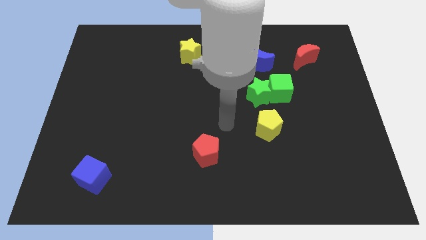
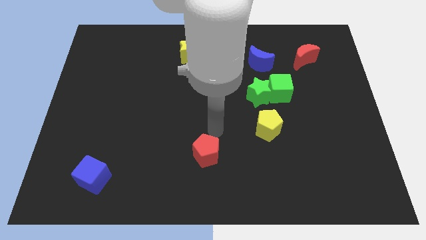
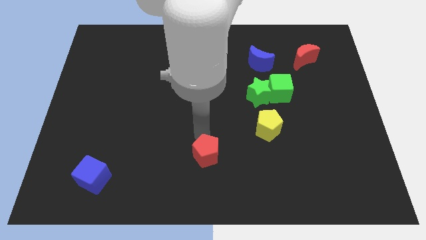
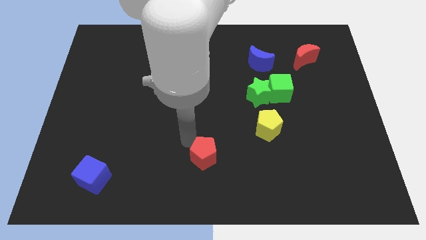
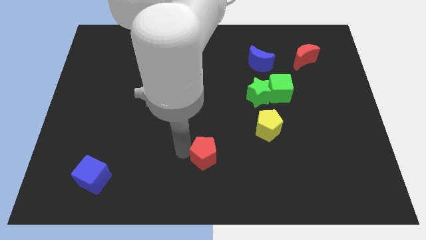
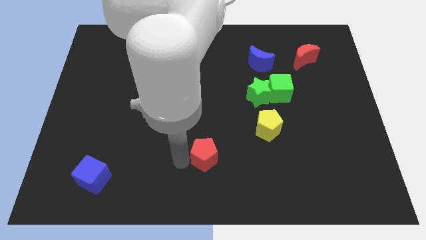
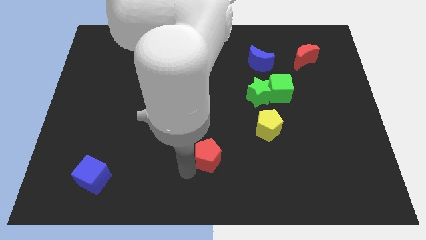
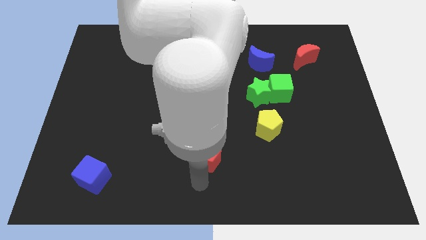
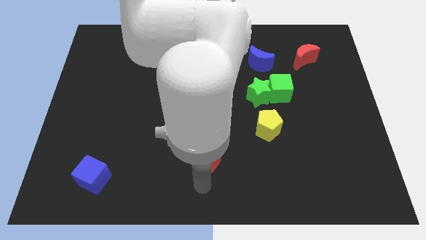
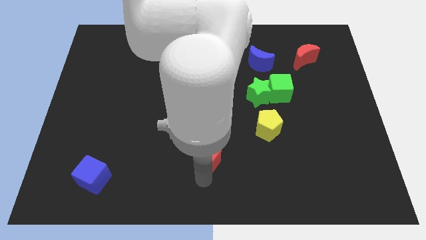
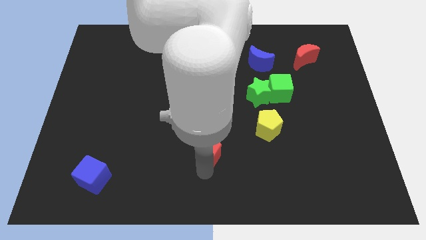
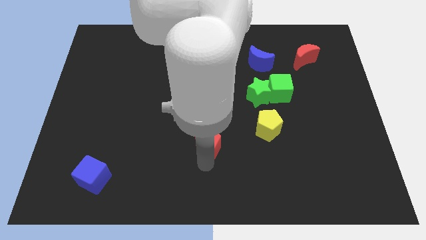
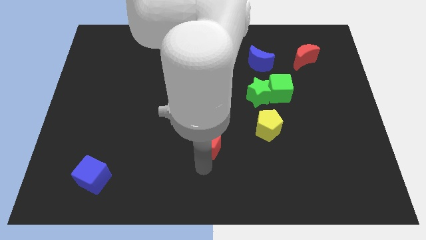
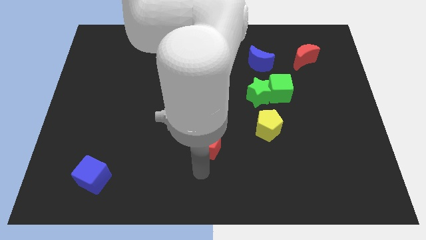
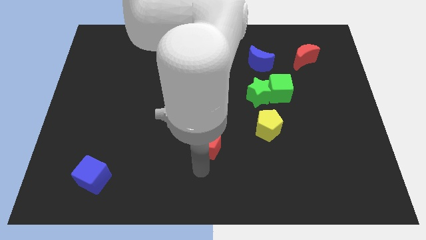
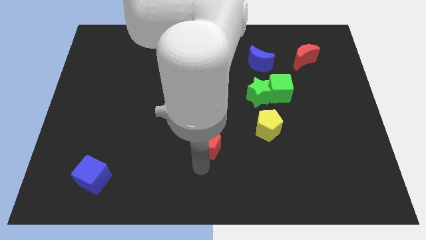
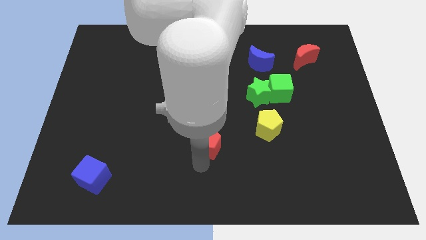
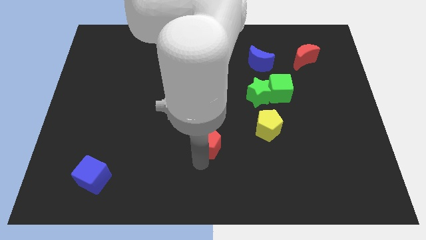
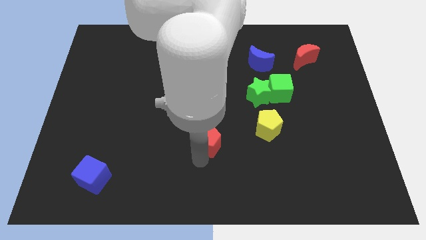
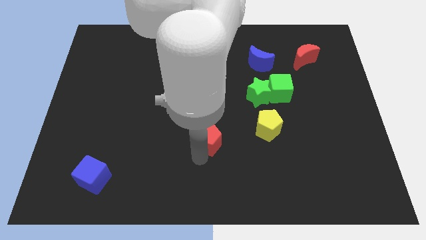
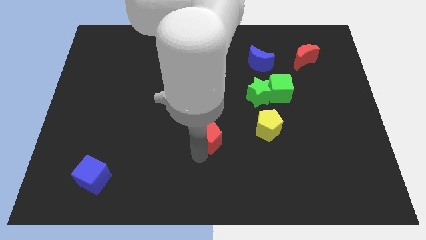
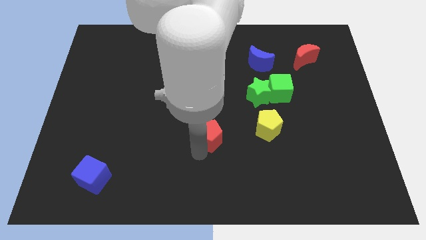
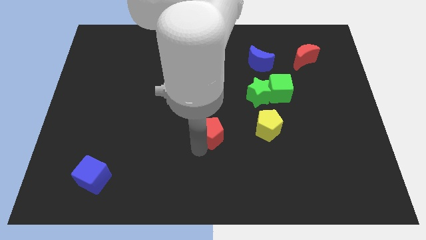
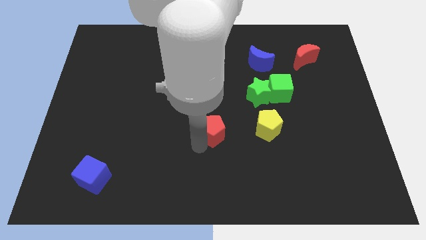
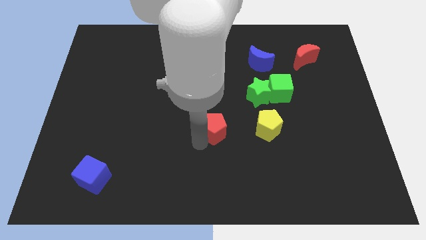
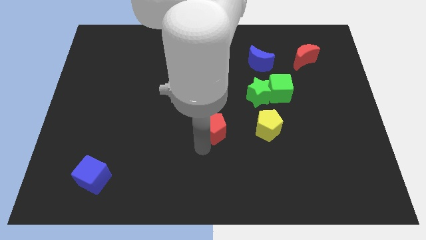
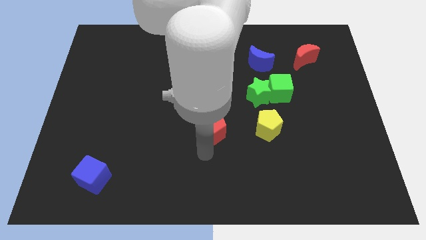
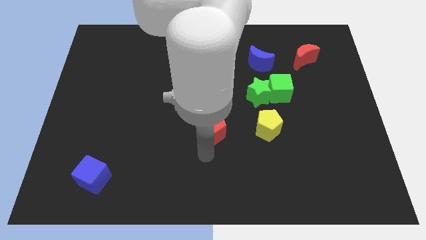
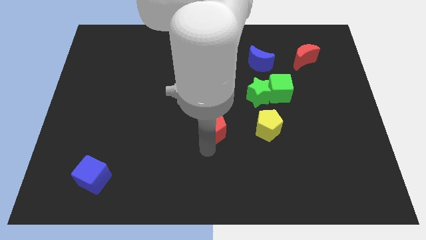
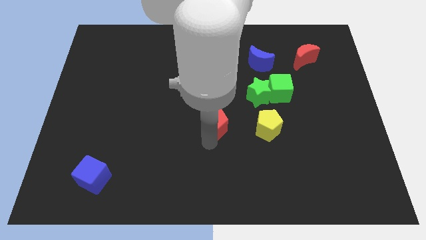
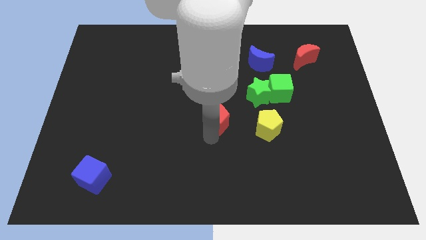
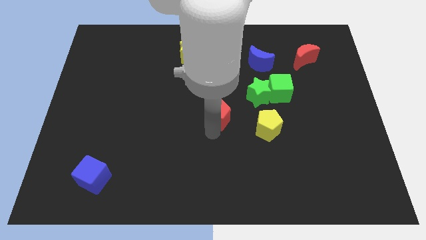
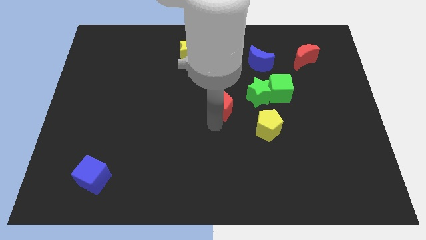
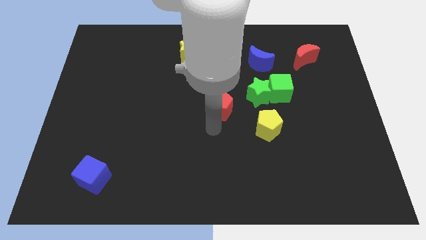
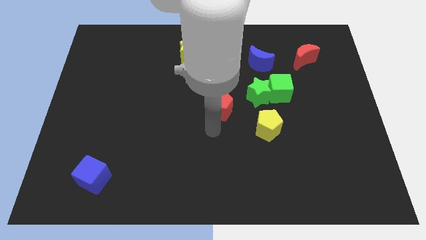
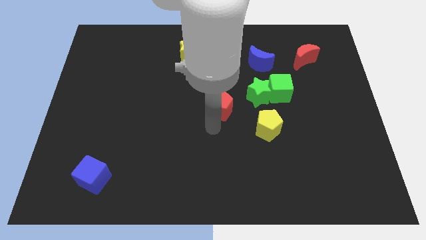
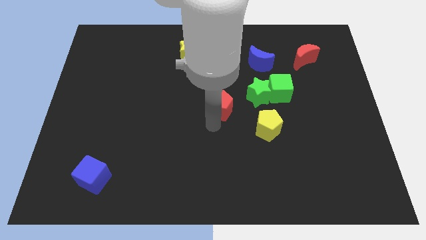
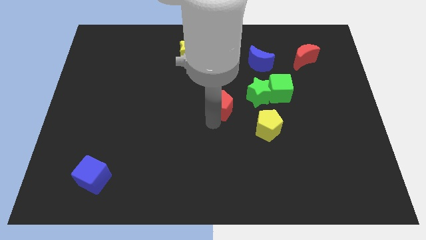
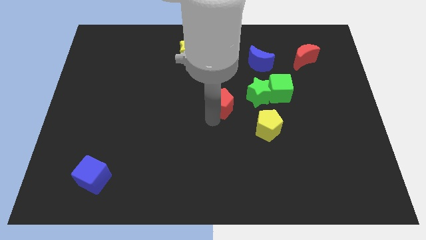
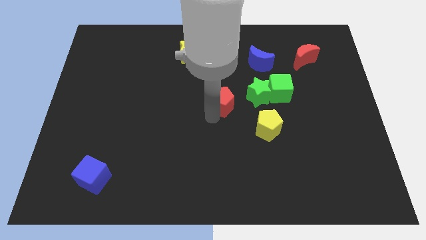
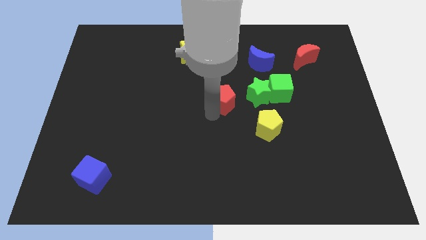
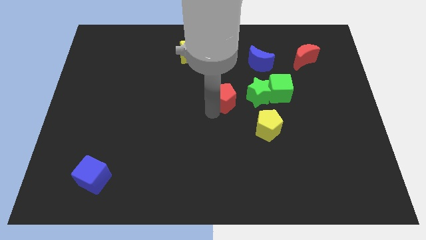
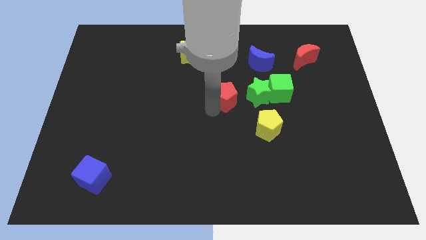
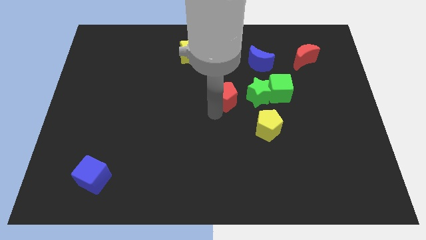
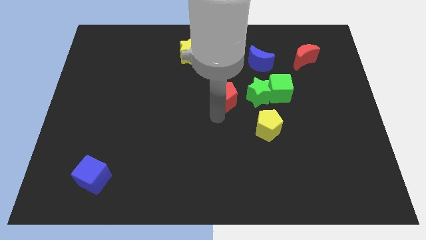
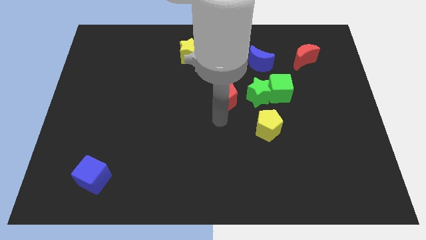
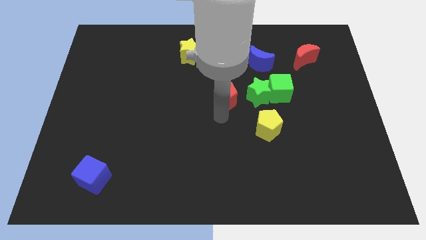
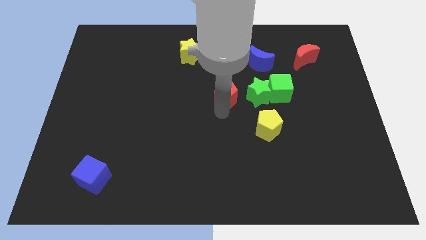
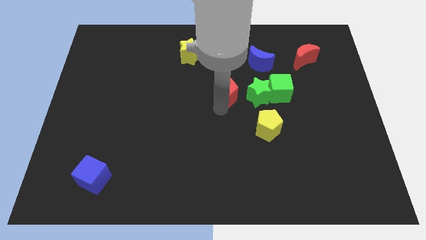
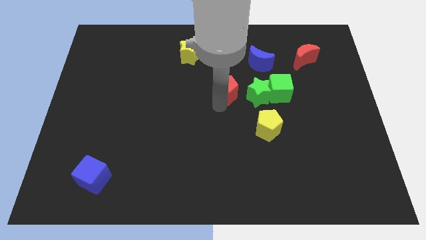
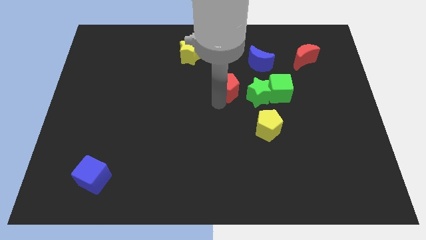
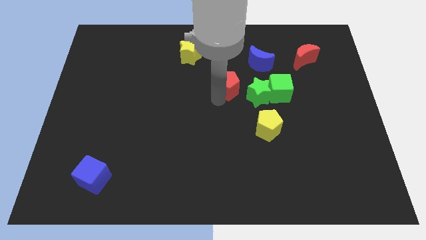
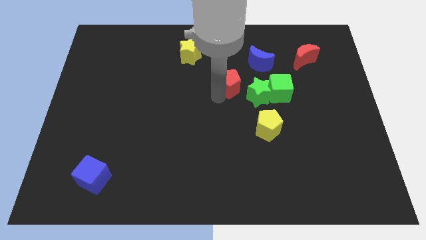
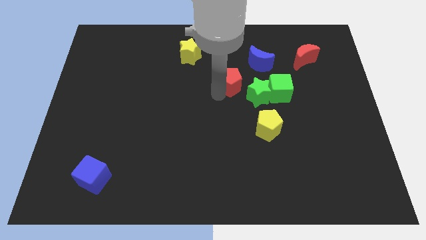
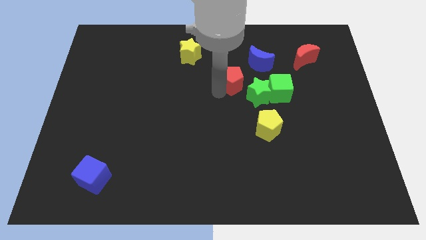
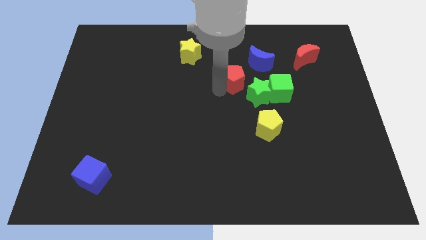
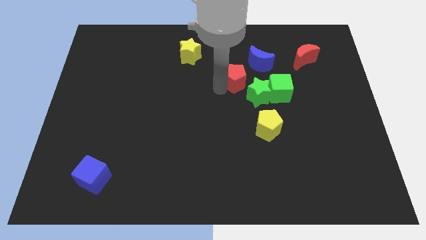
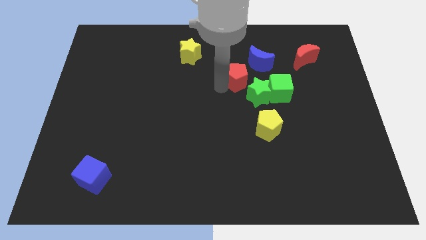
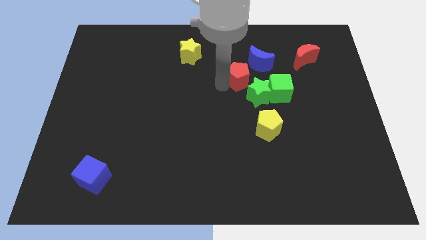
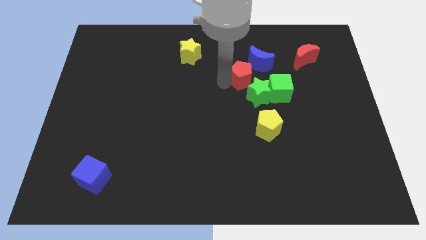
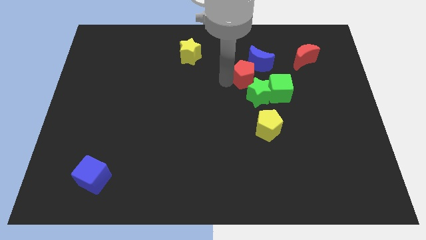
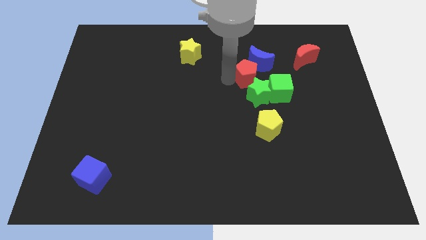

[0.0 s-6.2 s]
slide the red pentagon towards the blue moon

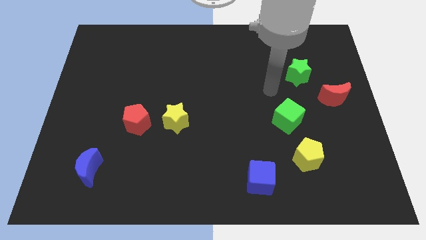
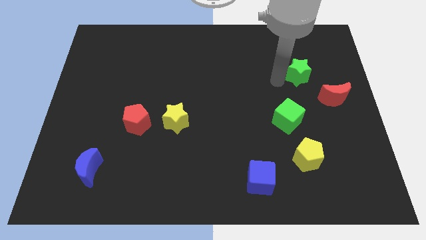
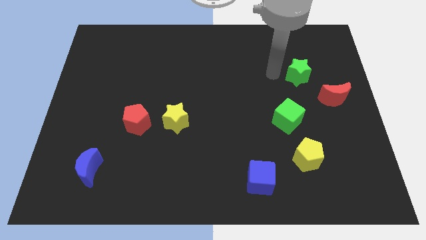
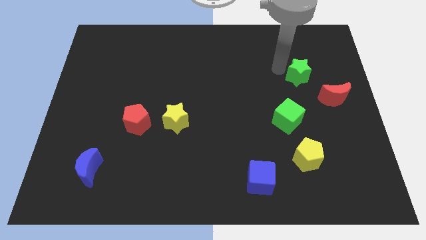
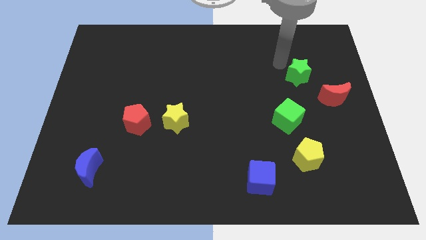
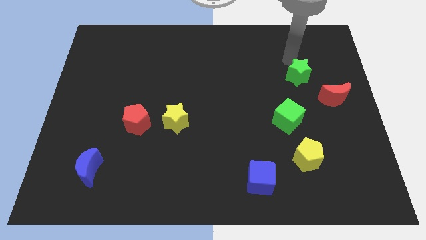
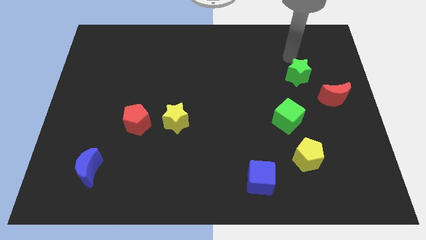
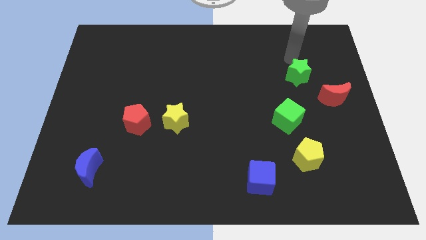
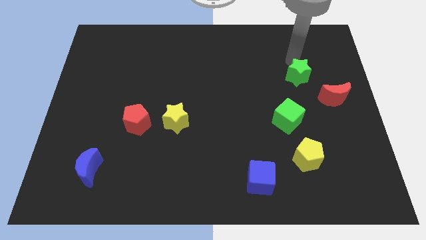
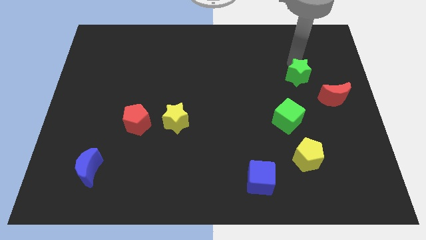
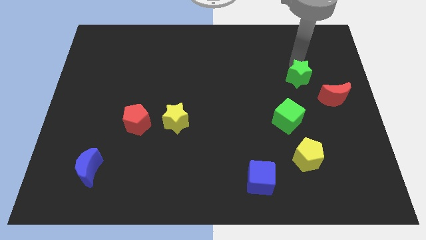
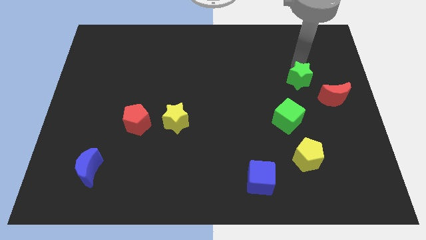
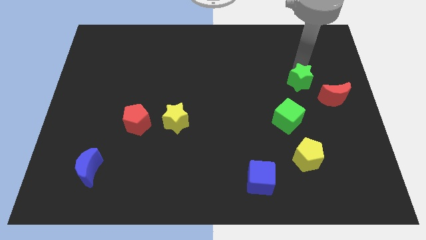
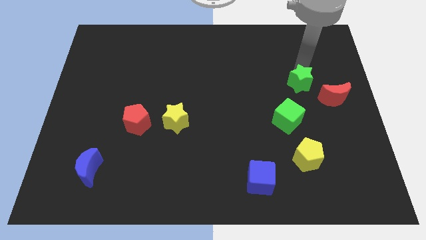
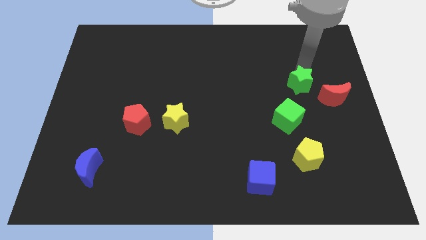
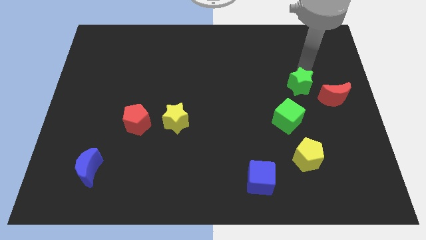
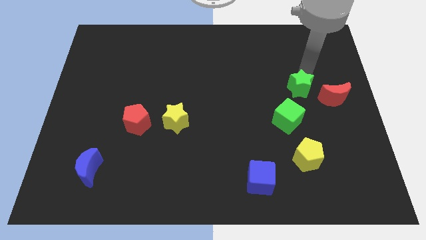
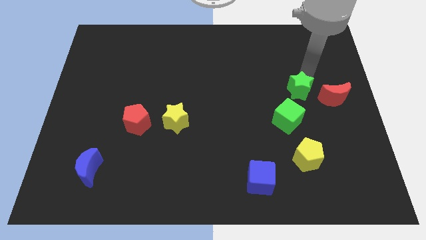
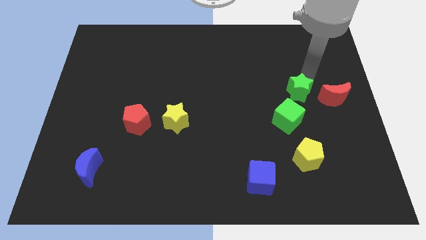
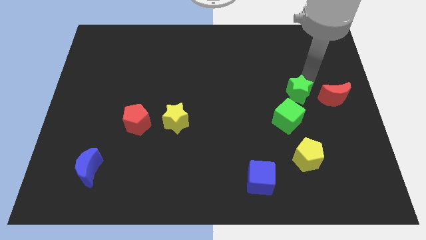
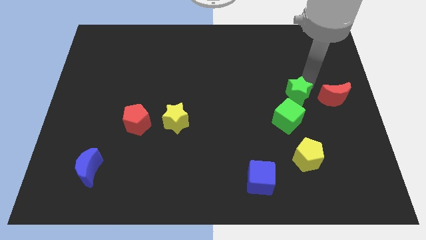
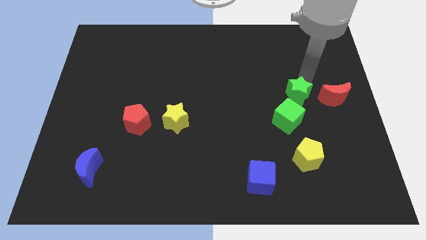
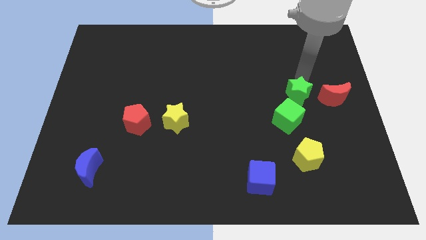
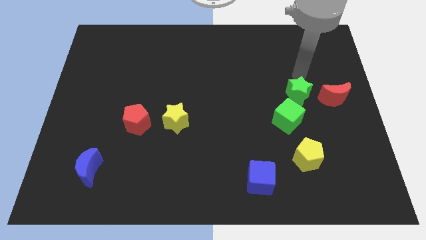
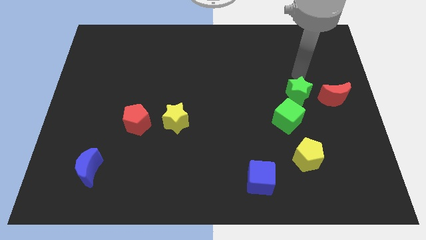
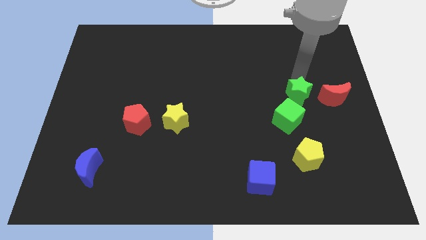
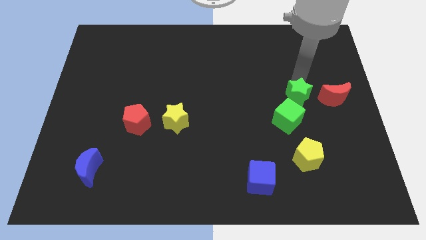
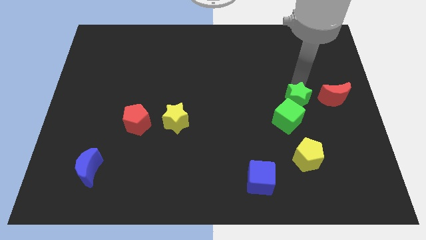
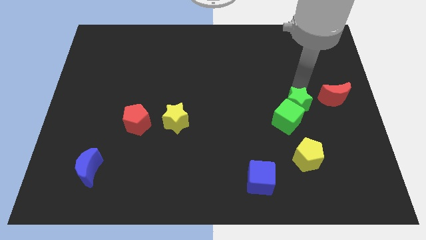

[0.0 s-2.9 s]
move the green star to the green cube
